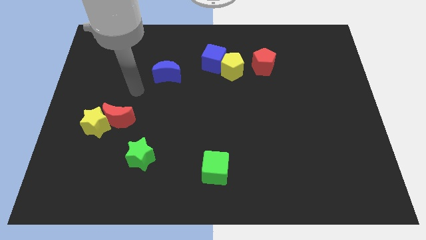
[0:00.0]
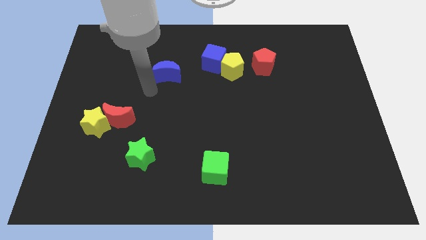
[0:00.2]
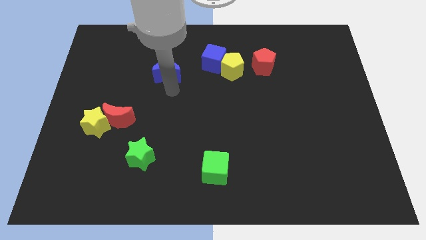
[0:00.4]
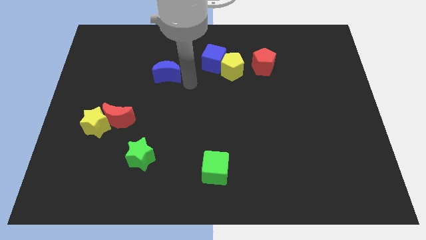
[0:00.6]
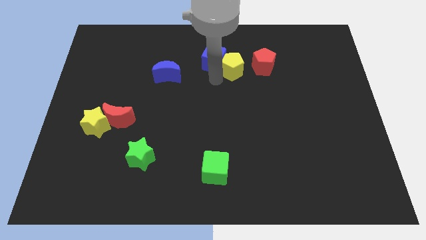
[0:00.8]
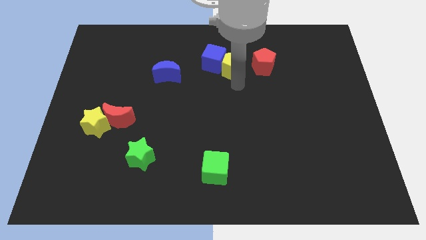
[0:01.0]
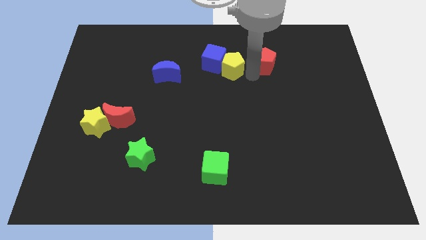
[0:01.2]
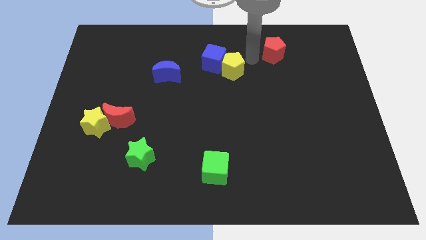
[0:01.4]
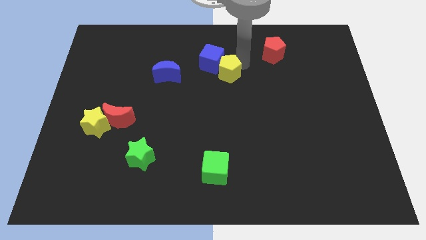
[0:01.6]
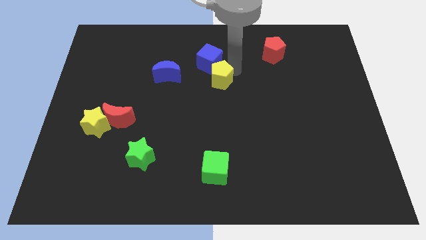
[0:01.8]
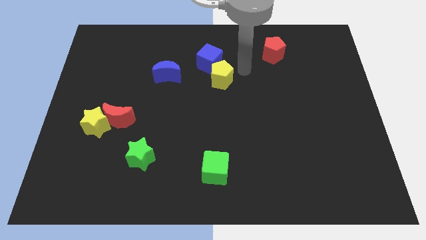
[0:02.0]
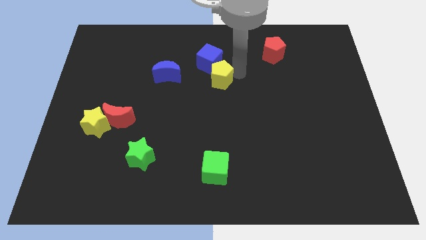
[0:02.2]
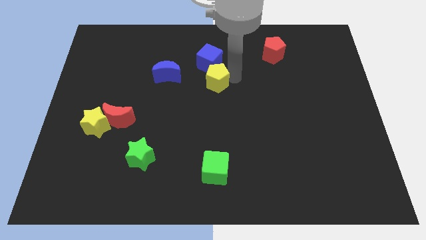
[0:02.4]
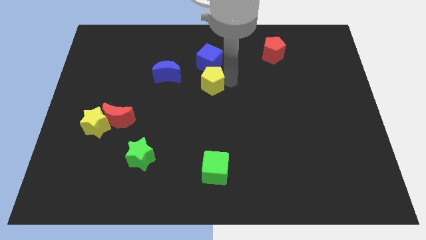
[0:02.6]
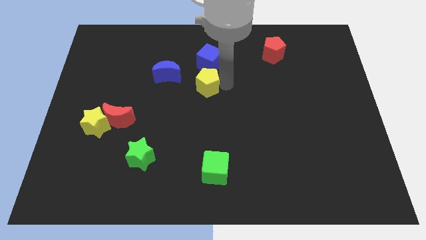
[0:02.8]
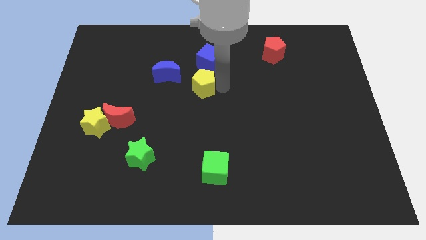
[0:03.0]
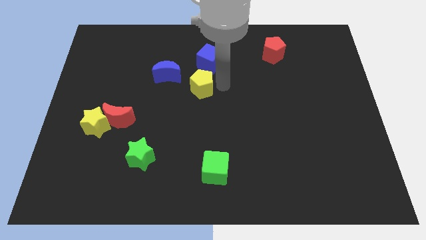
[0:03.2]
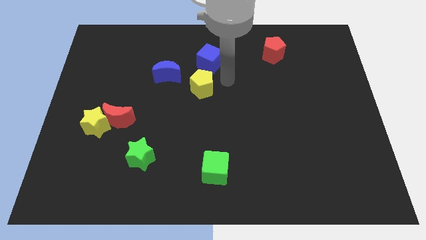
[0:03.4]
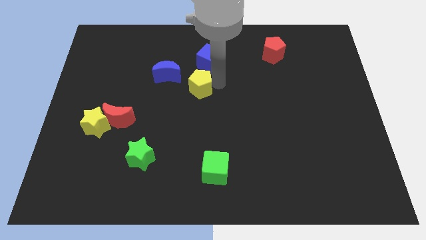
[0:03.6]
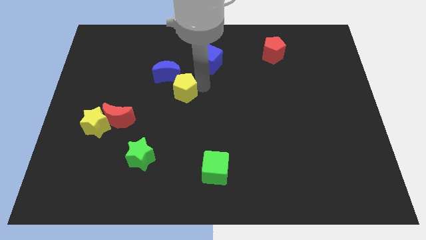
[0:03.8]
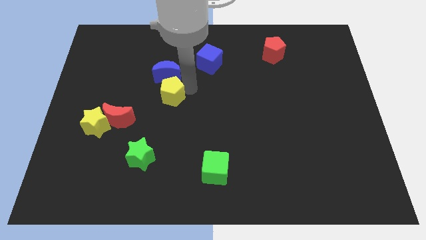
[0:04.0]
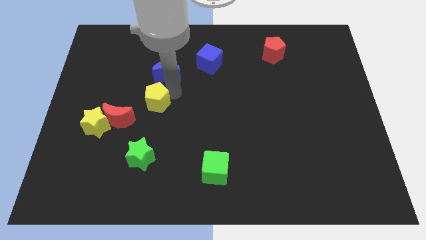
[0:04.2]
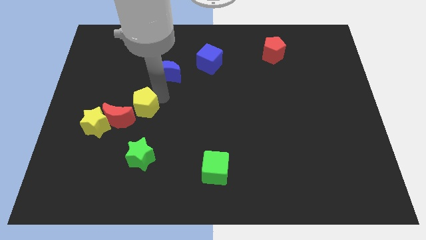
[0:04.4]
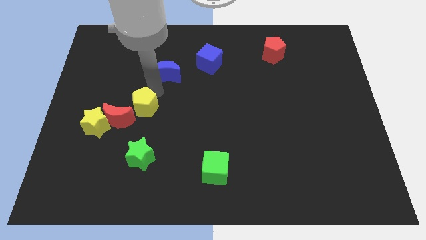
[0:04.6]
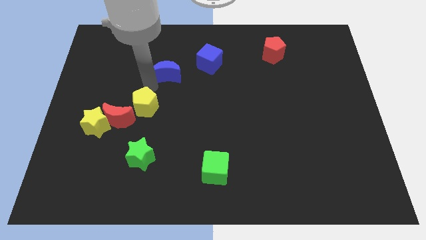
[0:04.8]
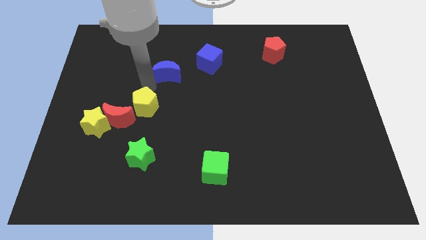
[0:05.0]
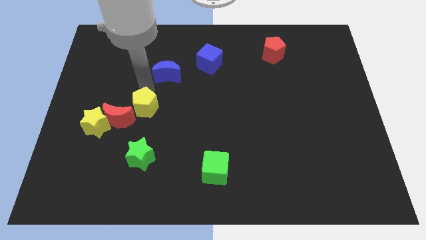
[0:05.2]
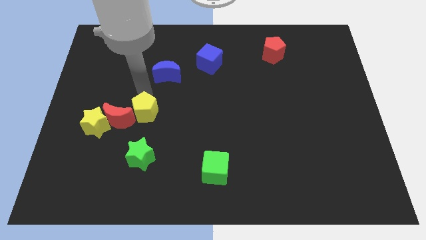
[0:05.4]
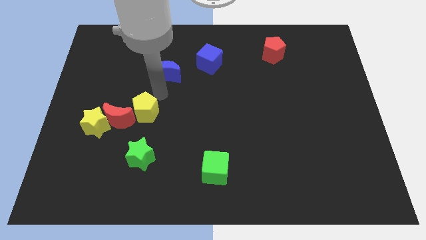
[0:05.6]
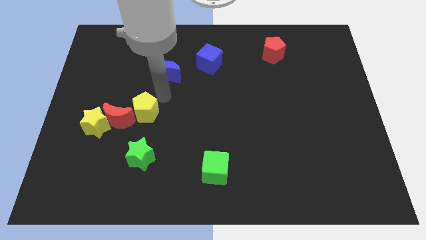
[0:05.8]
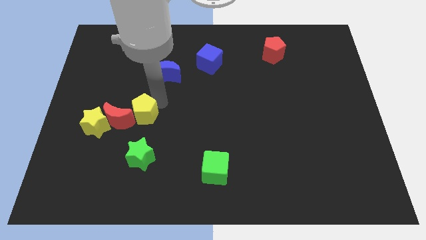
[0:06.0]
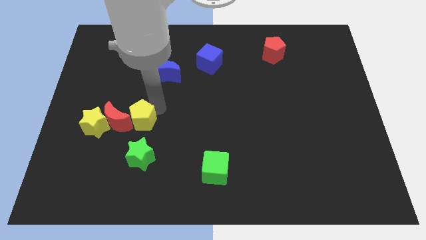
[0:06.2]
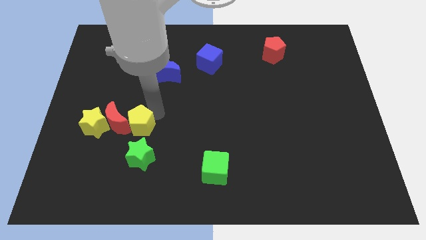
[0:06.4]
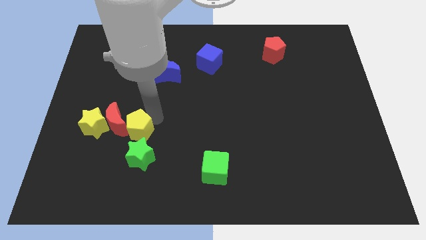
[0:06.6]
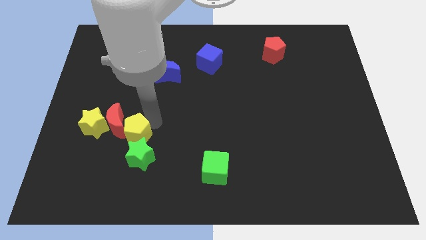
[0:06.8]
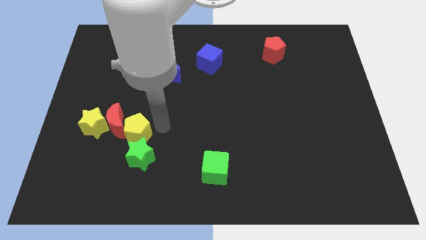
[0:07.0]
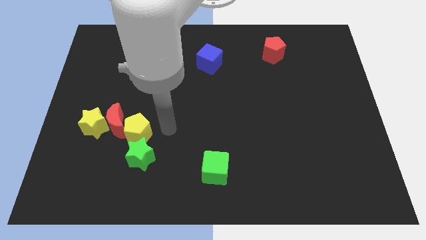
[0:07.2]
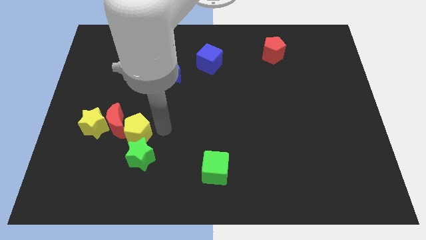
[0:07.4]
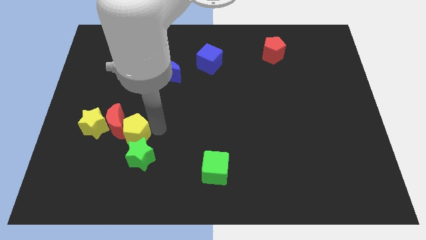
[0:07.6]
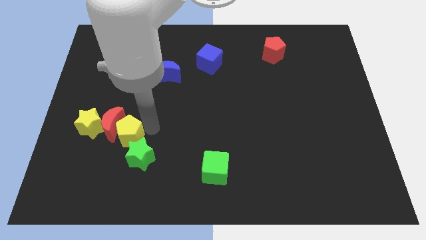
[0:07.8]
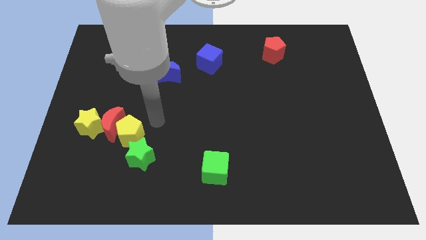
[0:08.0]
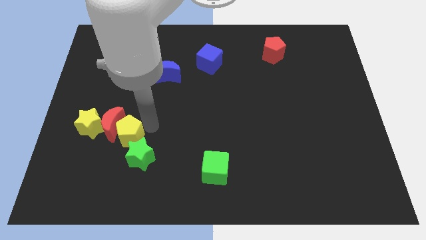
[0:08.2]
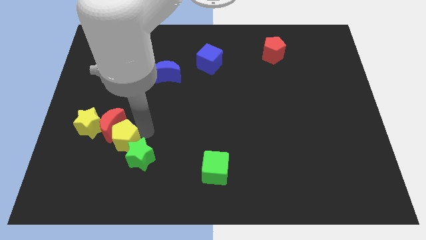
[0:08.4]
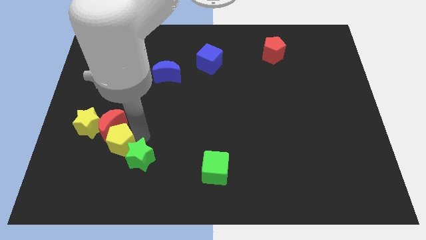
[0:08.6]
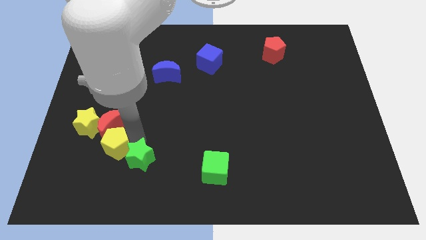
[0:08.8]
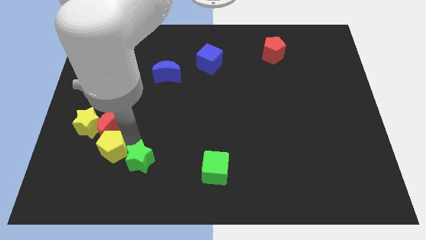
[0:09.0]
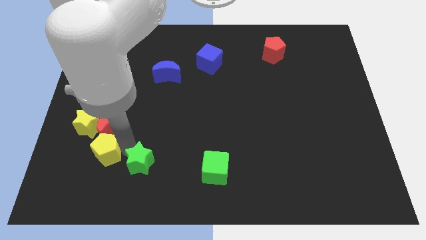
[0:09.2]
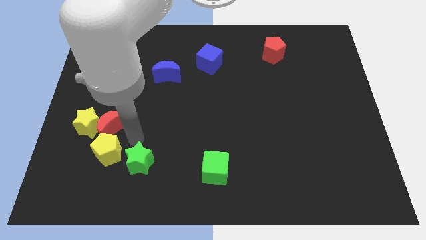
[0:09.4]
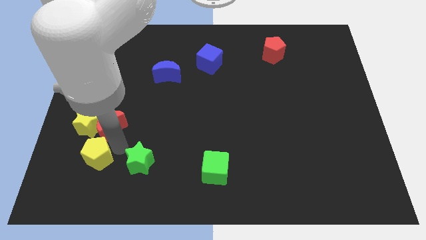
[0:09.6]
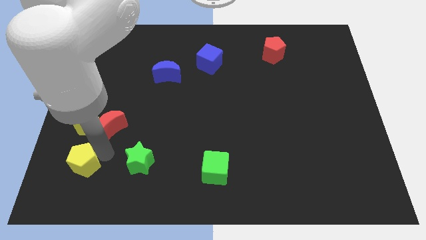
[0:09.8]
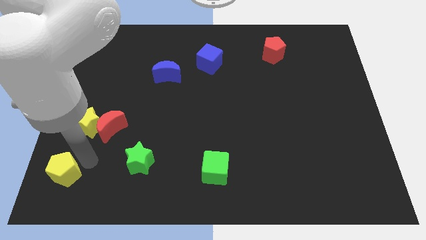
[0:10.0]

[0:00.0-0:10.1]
slide the yellow pentagon to the bottom left of the board

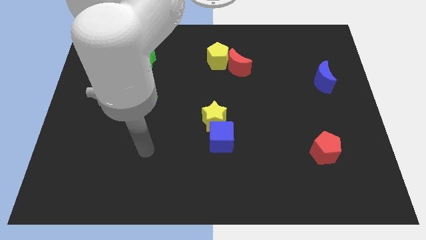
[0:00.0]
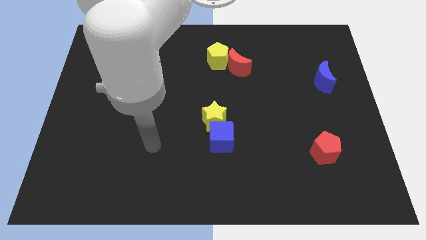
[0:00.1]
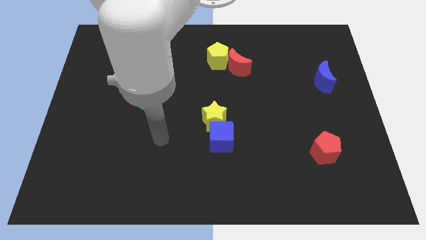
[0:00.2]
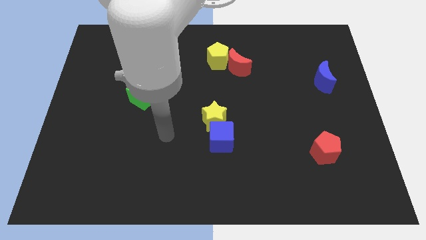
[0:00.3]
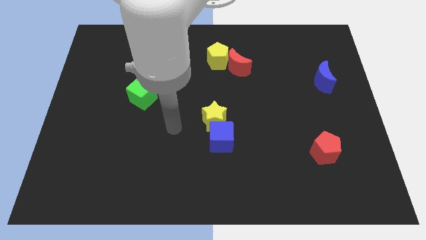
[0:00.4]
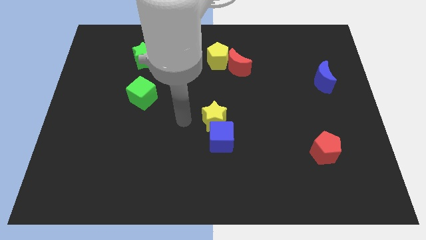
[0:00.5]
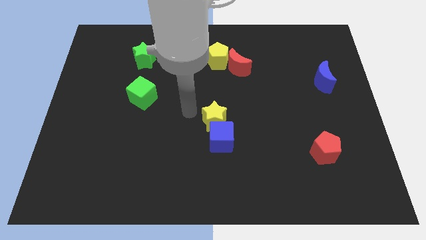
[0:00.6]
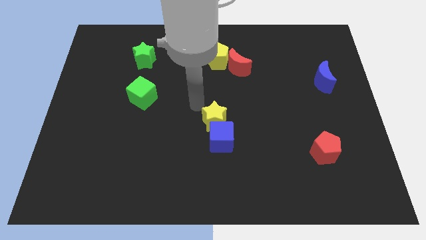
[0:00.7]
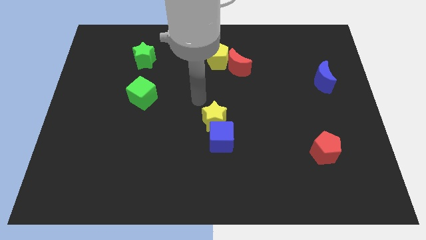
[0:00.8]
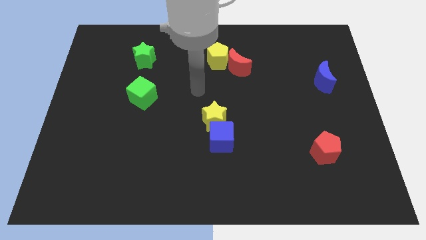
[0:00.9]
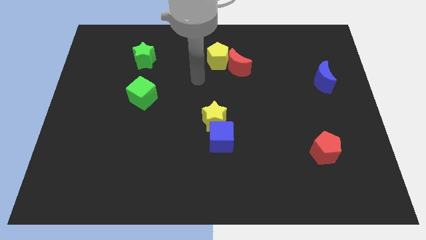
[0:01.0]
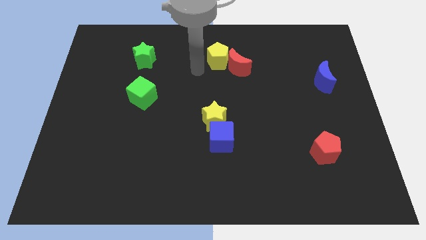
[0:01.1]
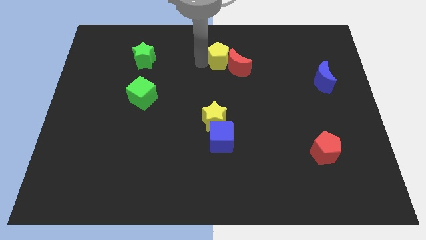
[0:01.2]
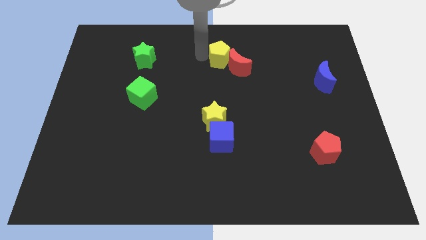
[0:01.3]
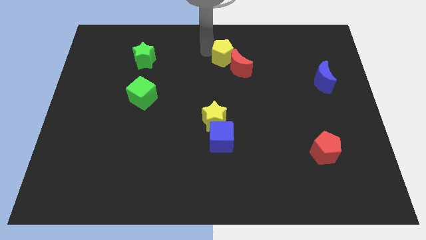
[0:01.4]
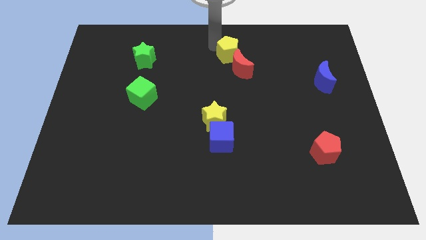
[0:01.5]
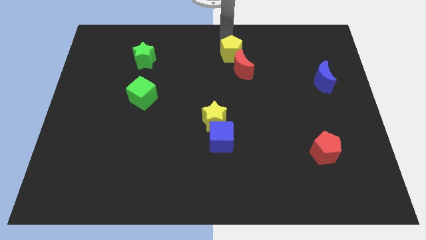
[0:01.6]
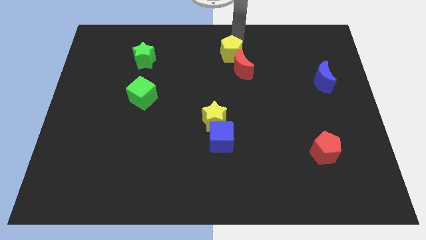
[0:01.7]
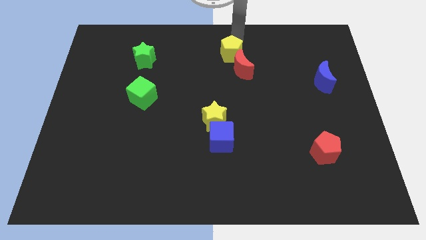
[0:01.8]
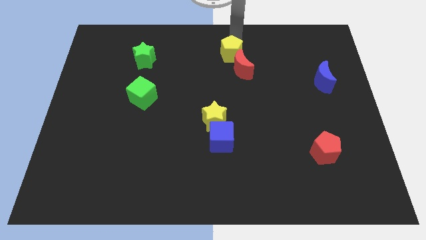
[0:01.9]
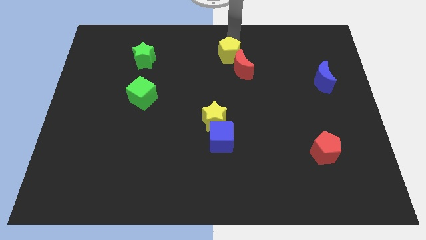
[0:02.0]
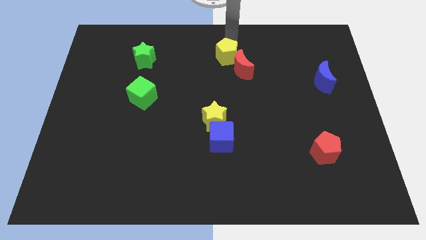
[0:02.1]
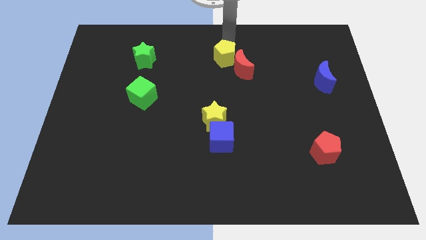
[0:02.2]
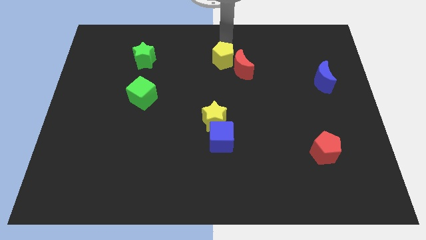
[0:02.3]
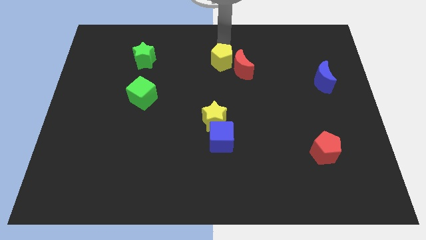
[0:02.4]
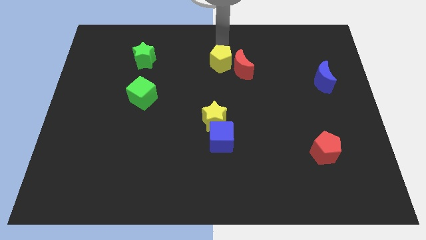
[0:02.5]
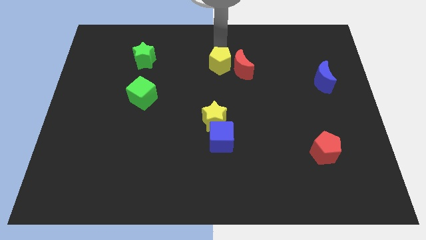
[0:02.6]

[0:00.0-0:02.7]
move the yellow pentagon to the center of the board
